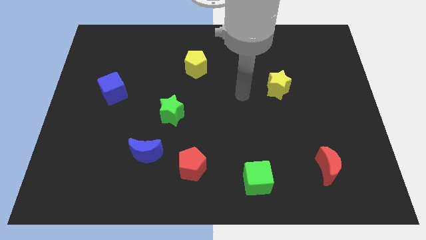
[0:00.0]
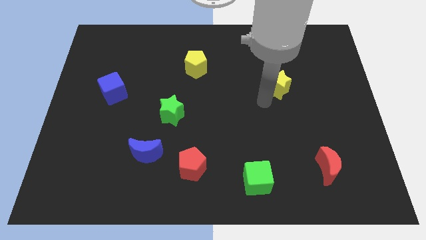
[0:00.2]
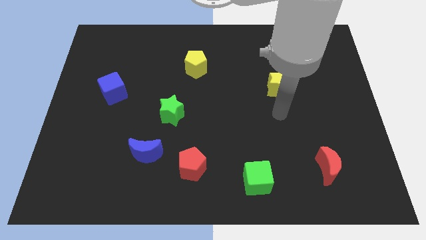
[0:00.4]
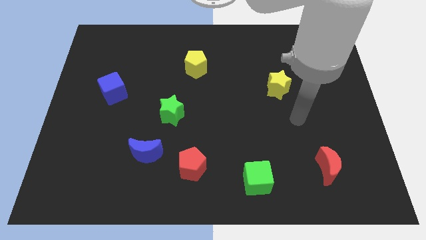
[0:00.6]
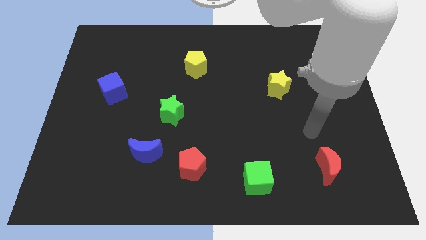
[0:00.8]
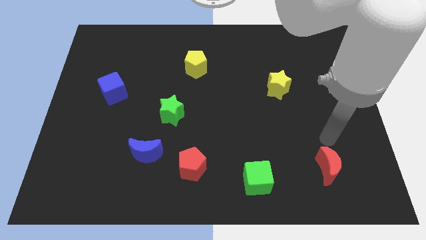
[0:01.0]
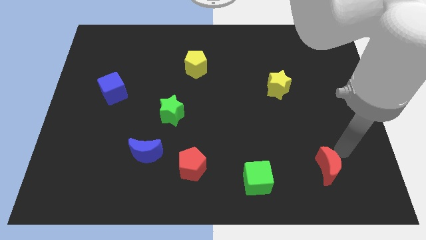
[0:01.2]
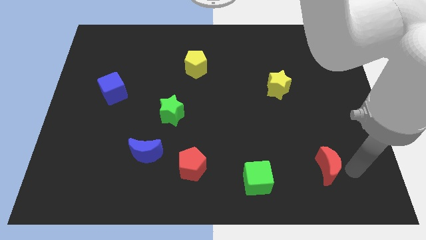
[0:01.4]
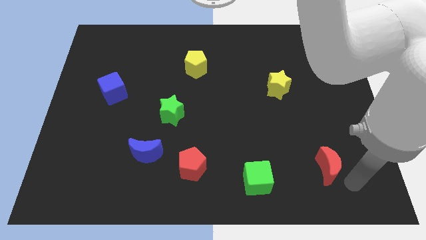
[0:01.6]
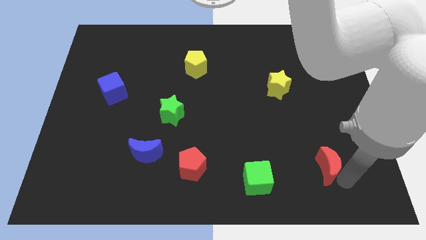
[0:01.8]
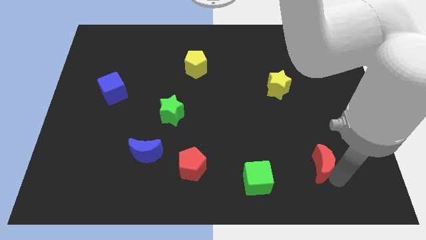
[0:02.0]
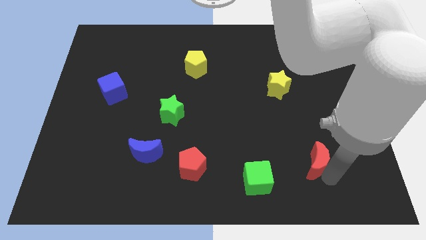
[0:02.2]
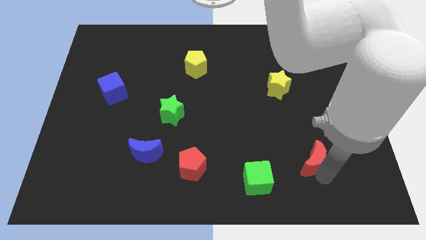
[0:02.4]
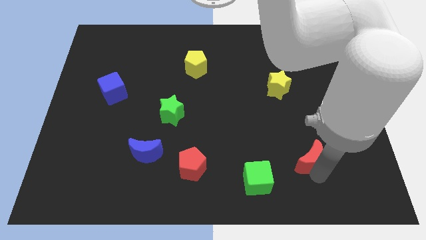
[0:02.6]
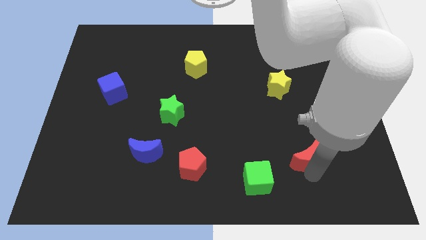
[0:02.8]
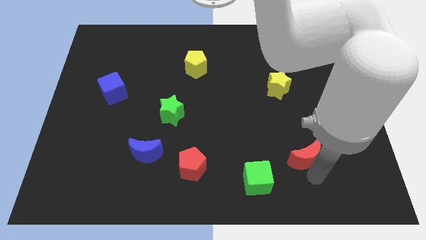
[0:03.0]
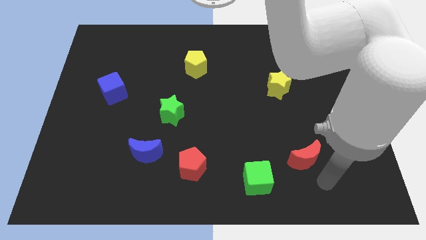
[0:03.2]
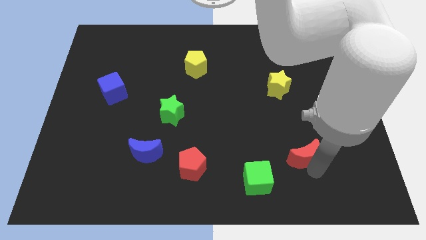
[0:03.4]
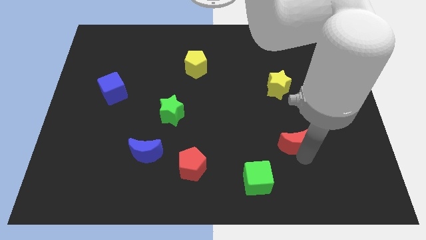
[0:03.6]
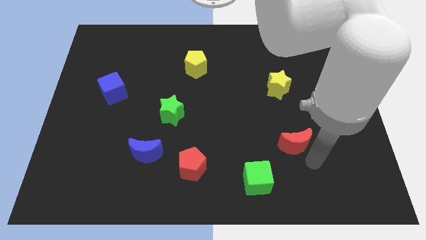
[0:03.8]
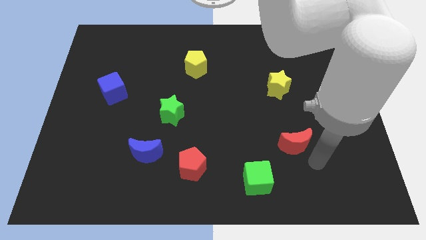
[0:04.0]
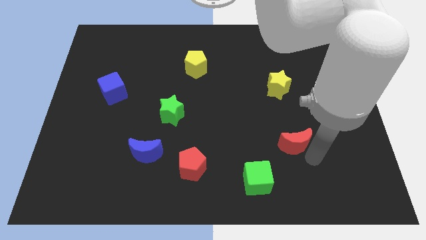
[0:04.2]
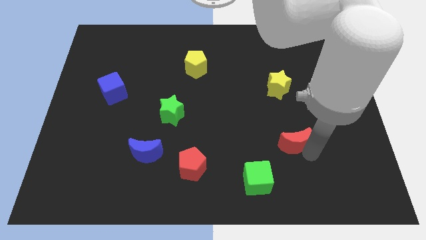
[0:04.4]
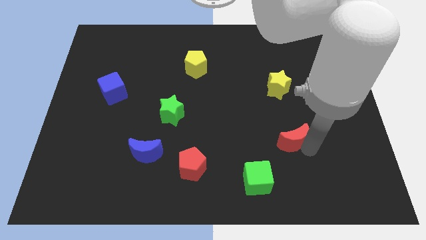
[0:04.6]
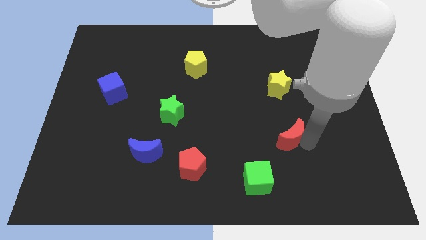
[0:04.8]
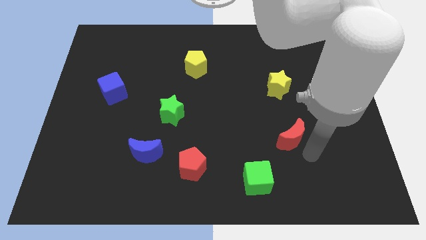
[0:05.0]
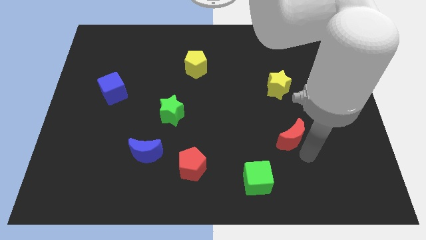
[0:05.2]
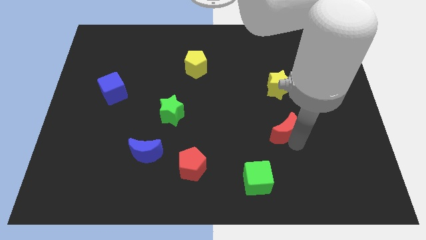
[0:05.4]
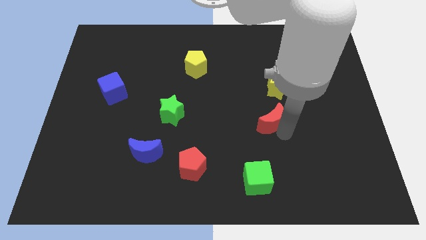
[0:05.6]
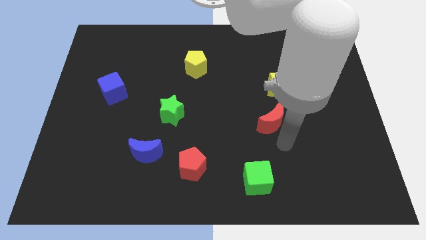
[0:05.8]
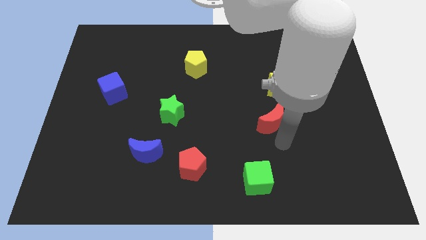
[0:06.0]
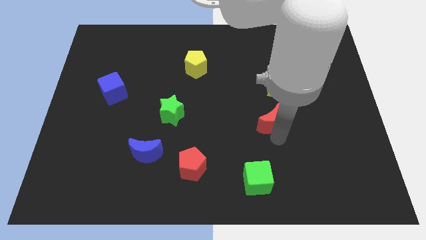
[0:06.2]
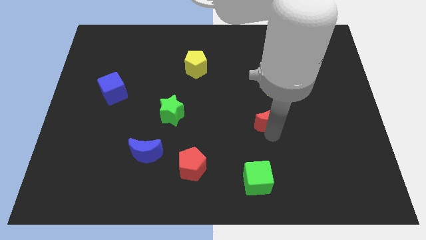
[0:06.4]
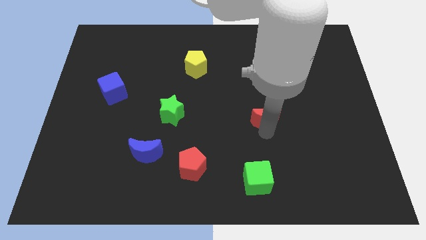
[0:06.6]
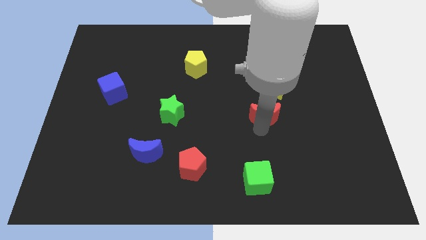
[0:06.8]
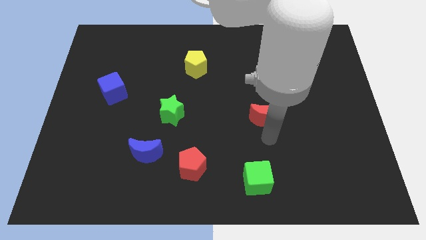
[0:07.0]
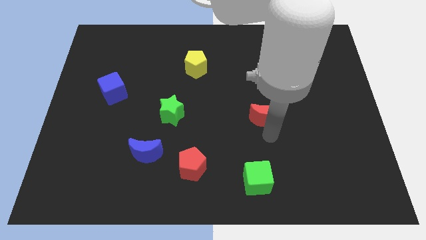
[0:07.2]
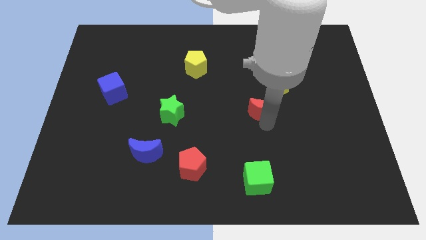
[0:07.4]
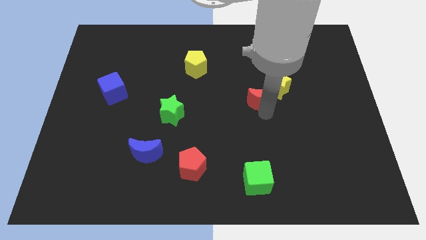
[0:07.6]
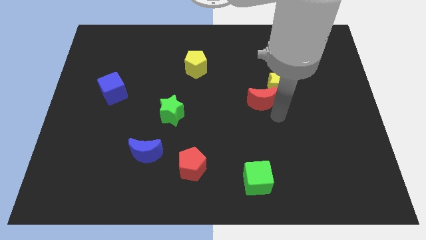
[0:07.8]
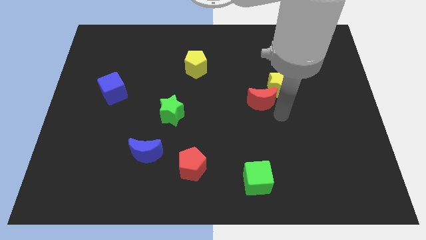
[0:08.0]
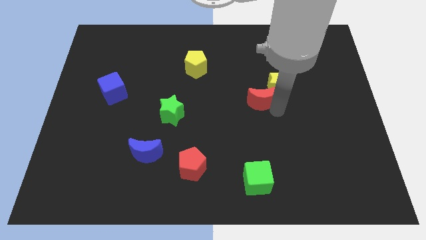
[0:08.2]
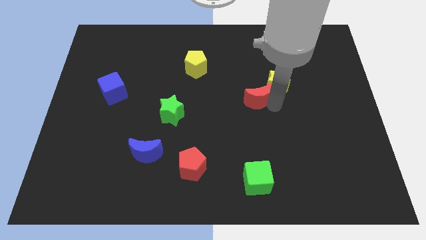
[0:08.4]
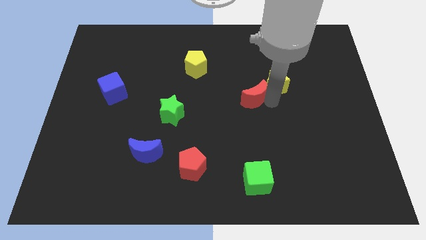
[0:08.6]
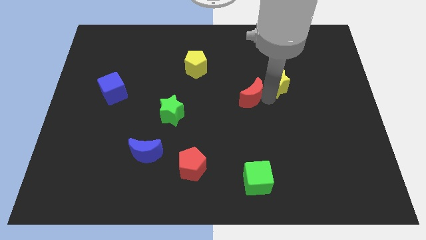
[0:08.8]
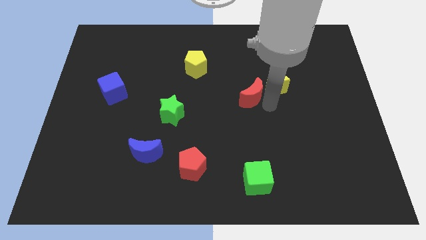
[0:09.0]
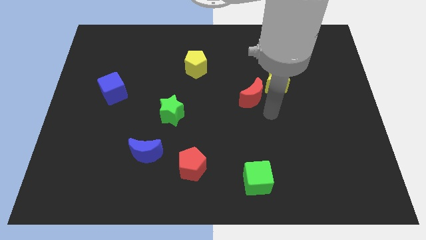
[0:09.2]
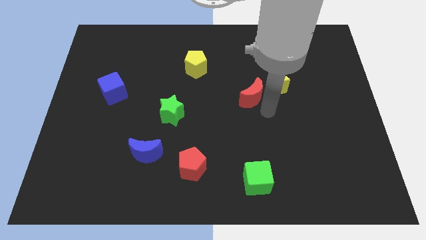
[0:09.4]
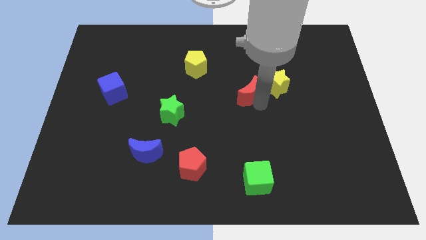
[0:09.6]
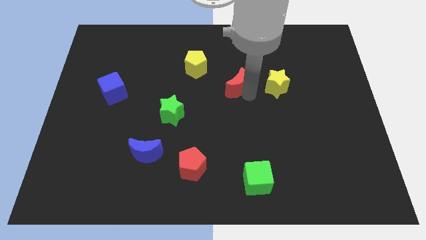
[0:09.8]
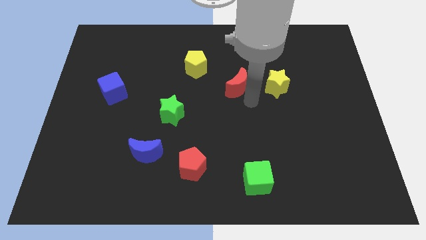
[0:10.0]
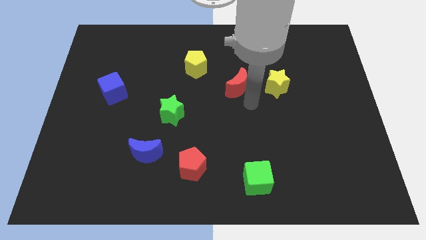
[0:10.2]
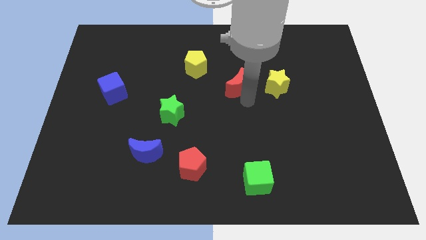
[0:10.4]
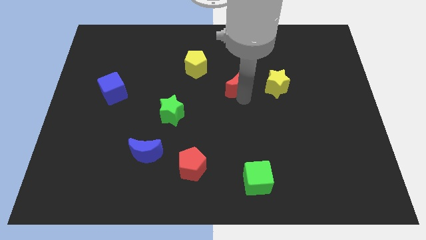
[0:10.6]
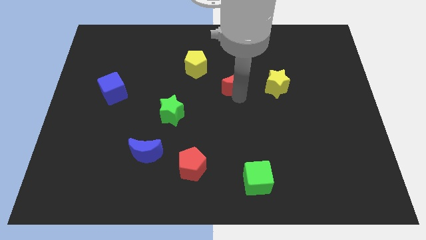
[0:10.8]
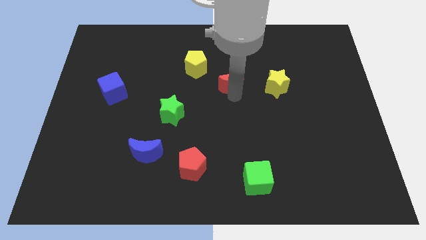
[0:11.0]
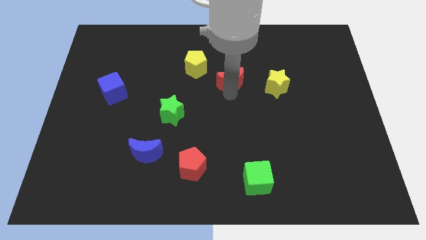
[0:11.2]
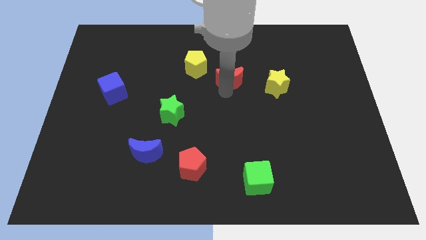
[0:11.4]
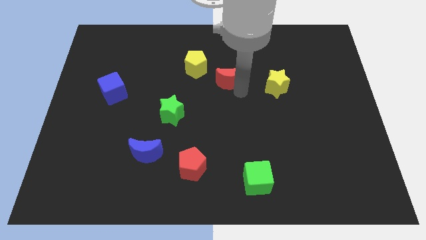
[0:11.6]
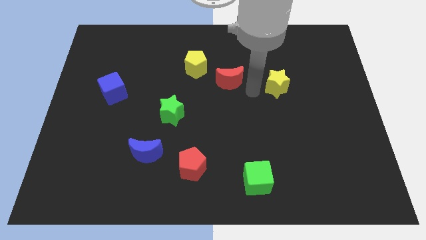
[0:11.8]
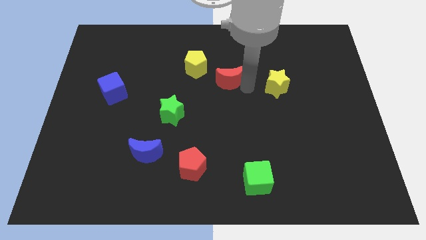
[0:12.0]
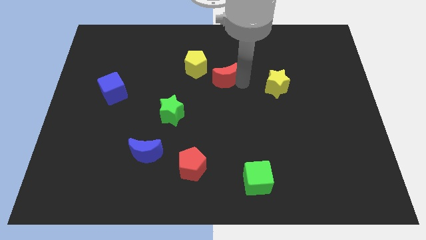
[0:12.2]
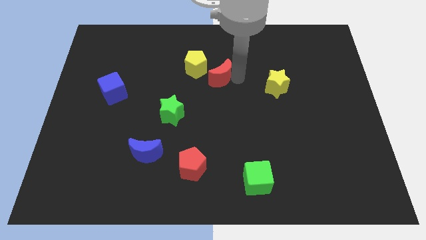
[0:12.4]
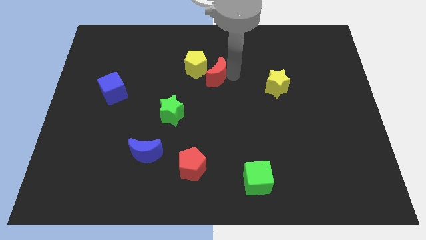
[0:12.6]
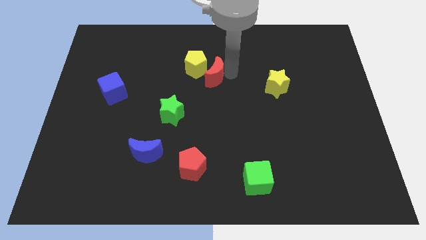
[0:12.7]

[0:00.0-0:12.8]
move the red moon close to the yellow pentagon
